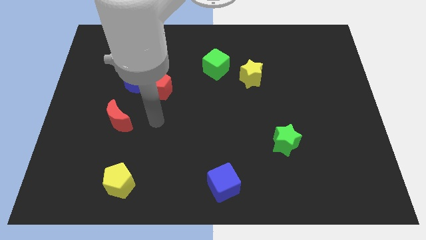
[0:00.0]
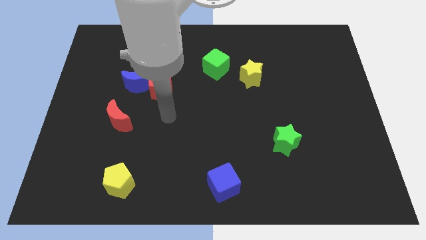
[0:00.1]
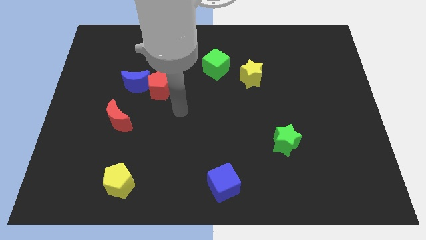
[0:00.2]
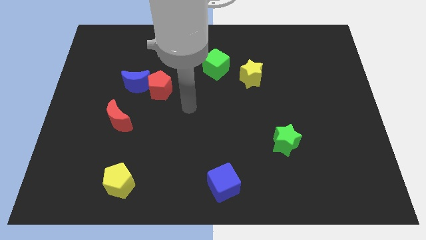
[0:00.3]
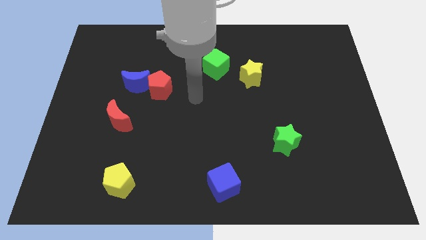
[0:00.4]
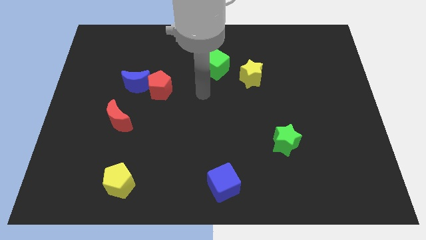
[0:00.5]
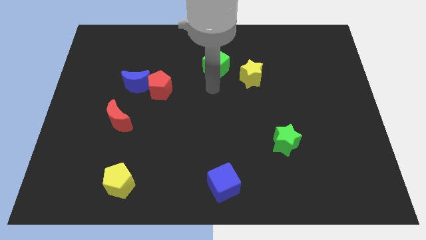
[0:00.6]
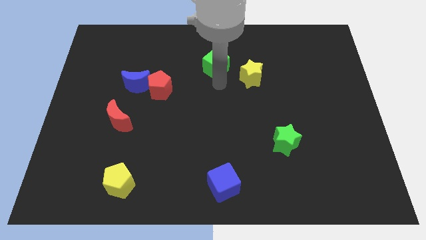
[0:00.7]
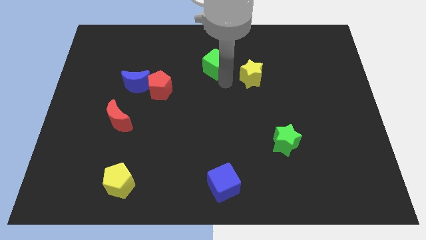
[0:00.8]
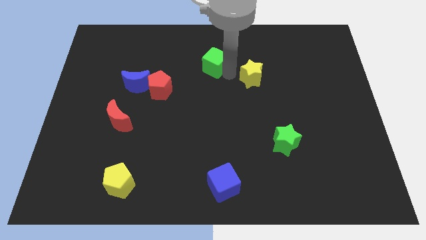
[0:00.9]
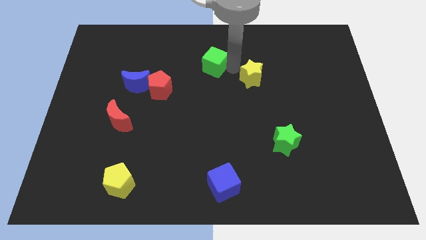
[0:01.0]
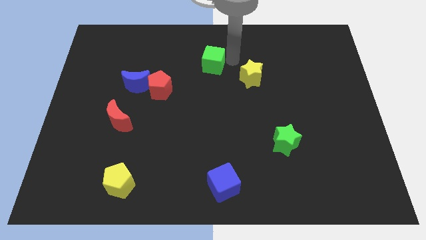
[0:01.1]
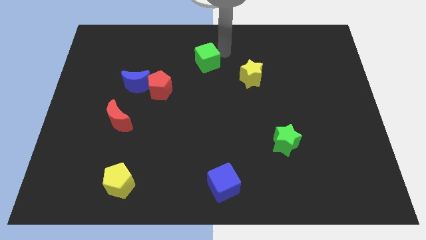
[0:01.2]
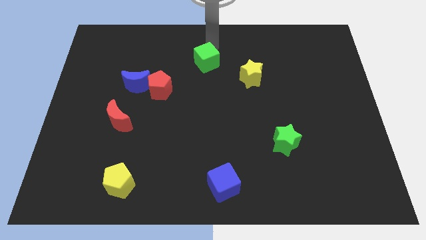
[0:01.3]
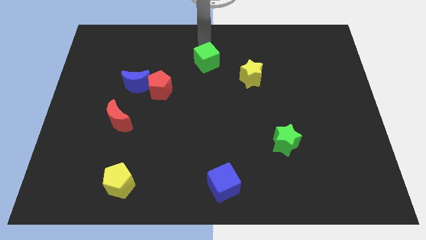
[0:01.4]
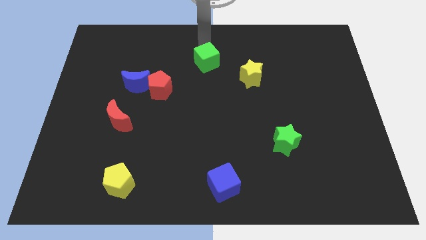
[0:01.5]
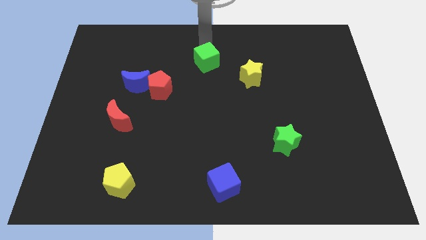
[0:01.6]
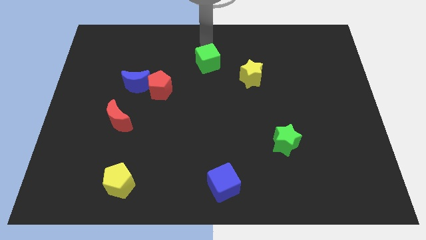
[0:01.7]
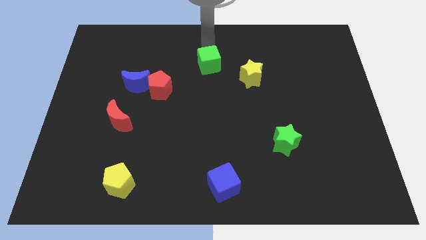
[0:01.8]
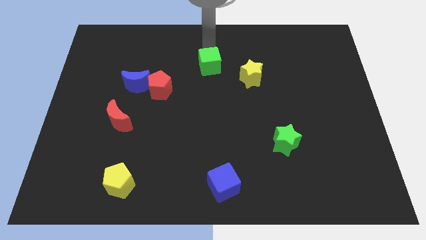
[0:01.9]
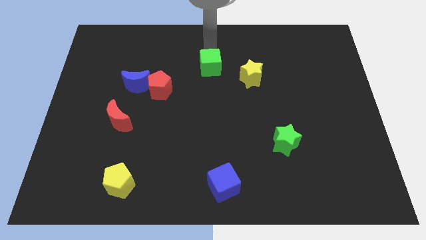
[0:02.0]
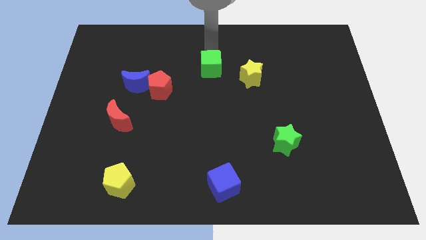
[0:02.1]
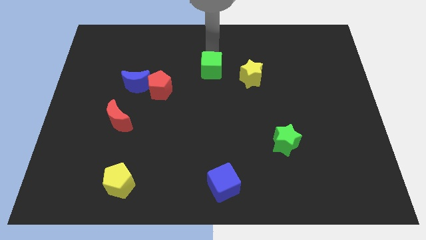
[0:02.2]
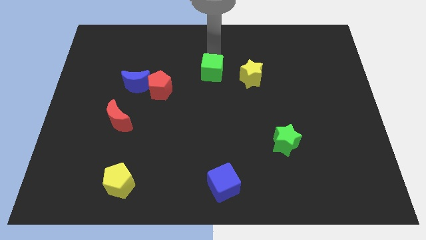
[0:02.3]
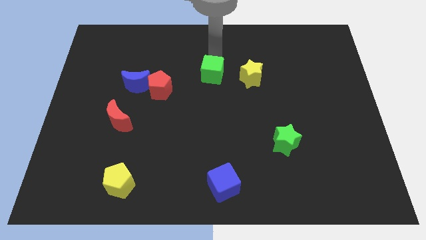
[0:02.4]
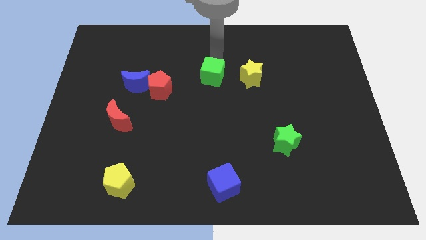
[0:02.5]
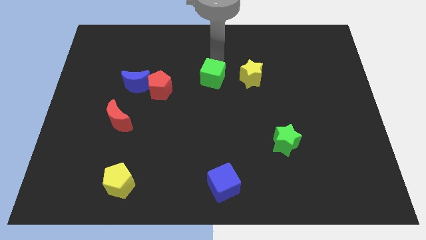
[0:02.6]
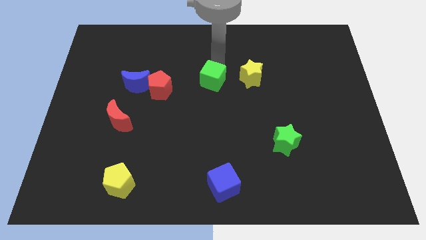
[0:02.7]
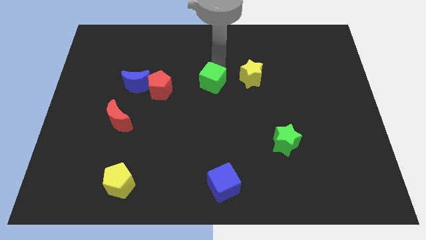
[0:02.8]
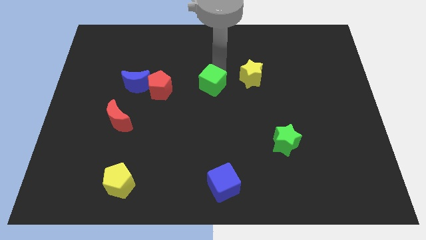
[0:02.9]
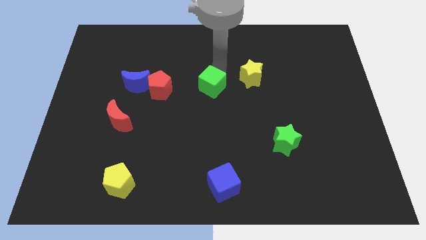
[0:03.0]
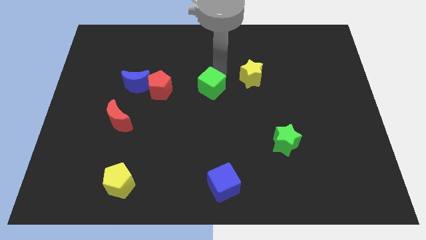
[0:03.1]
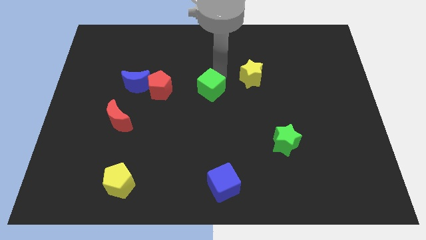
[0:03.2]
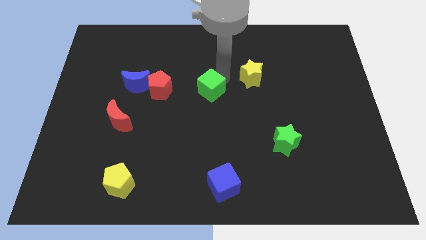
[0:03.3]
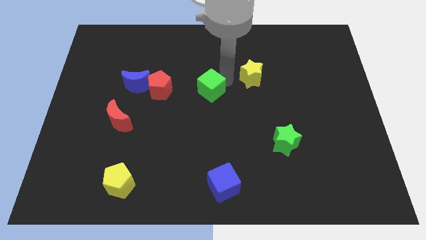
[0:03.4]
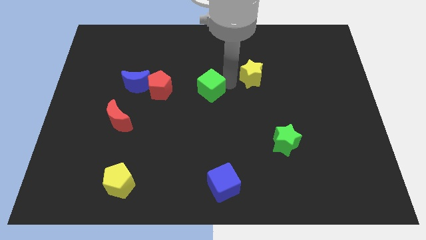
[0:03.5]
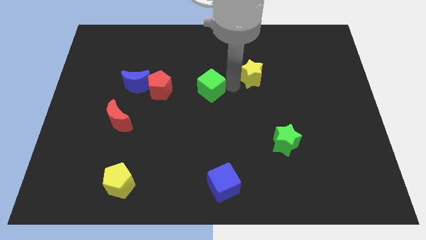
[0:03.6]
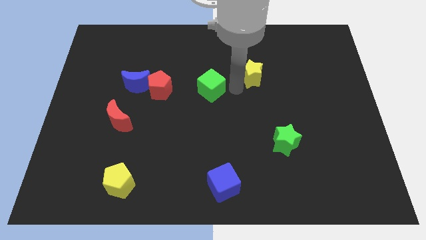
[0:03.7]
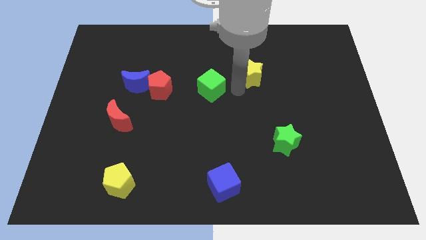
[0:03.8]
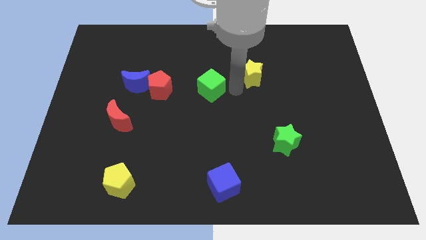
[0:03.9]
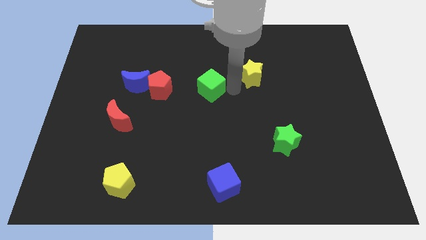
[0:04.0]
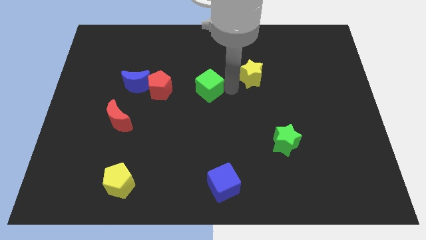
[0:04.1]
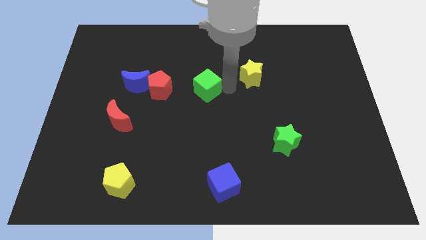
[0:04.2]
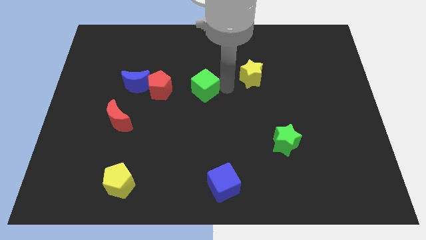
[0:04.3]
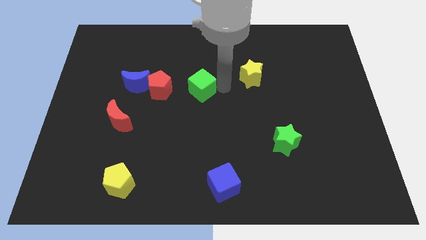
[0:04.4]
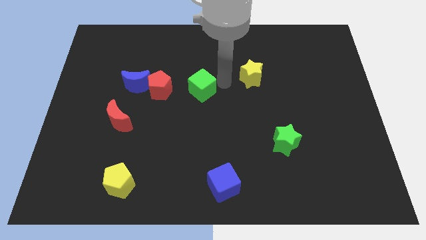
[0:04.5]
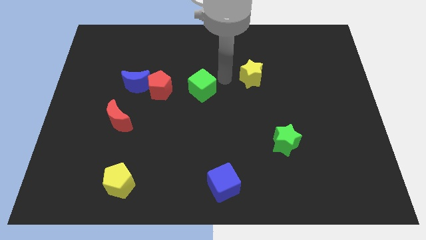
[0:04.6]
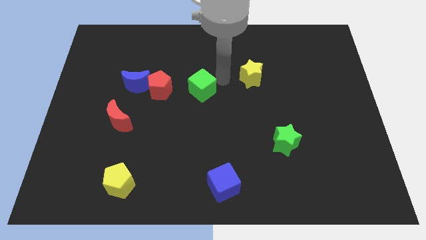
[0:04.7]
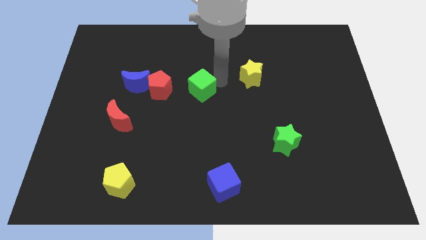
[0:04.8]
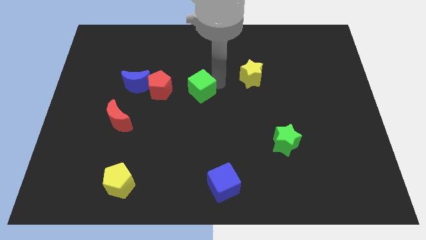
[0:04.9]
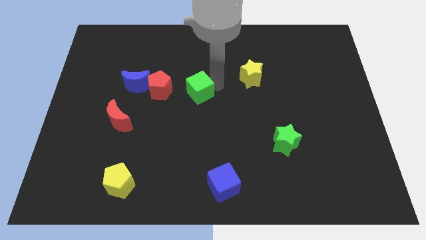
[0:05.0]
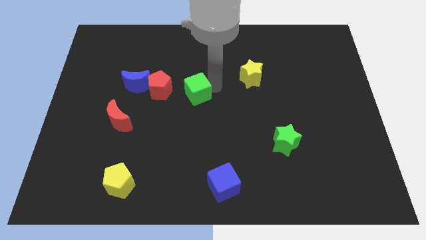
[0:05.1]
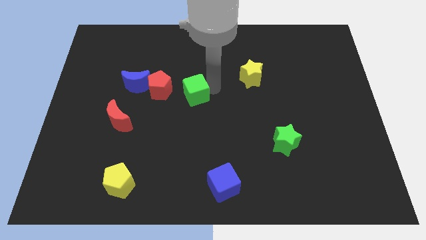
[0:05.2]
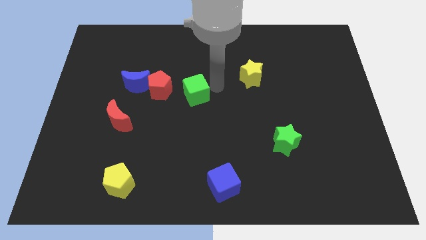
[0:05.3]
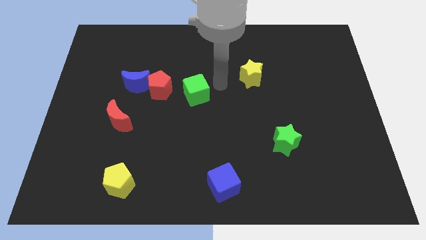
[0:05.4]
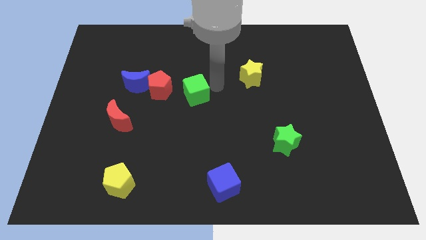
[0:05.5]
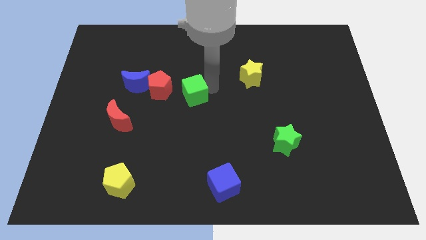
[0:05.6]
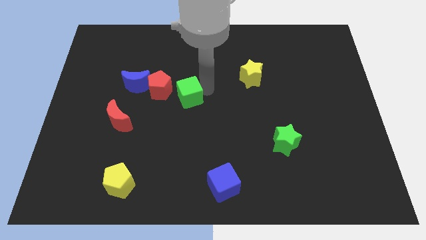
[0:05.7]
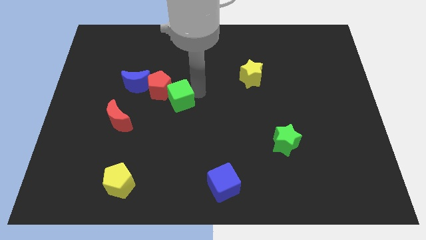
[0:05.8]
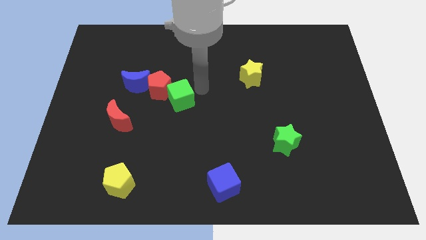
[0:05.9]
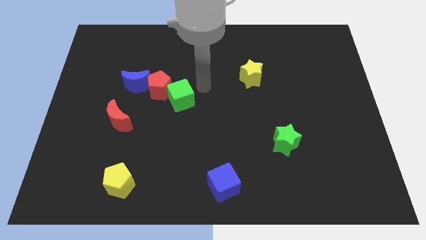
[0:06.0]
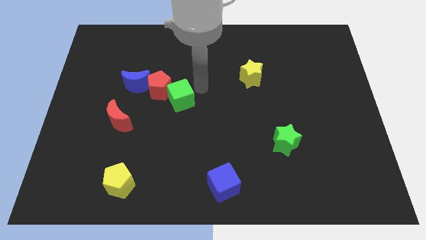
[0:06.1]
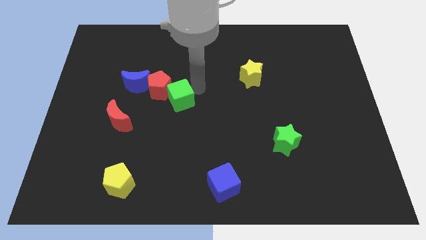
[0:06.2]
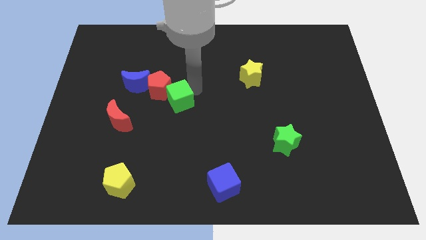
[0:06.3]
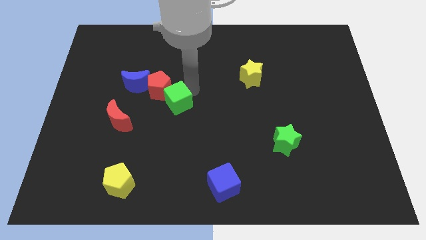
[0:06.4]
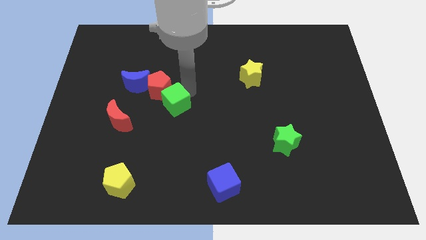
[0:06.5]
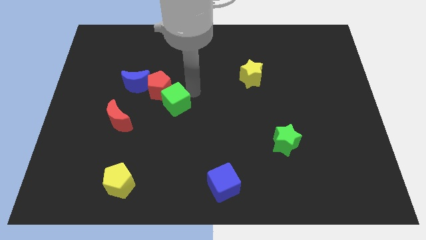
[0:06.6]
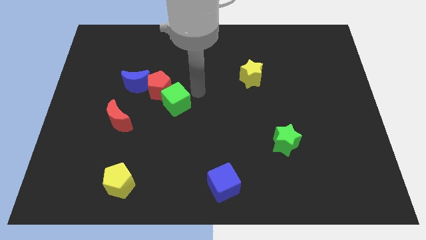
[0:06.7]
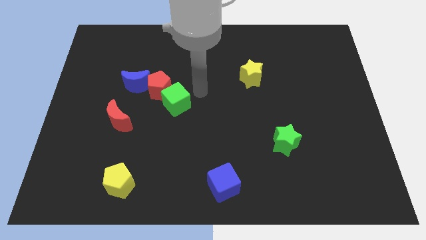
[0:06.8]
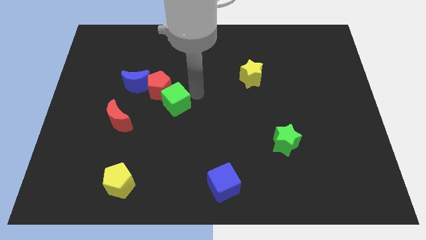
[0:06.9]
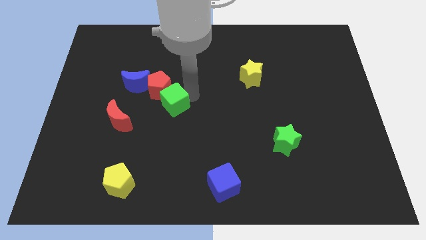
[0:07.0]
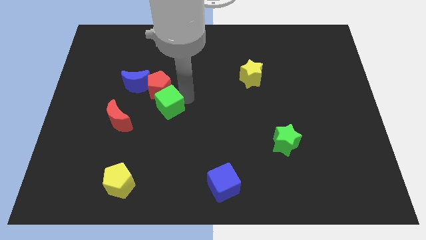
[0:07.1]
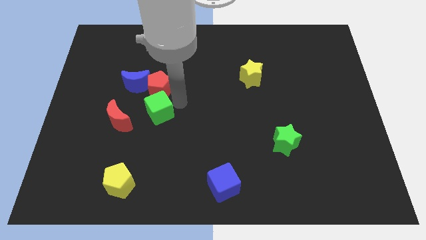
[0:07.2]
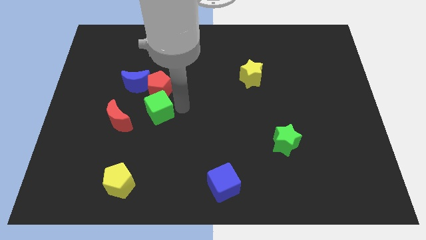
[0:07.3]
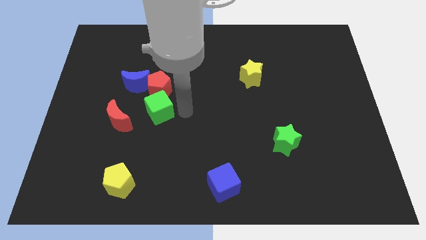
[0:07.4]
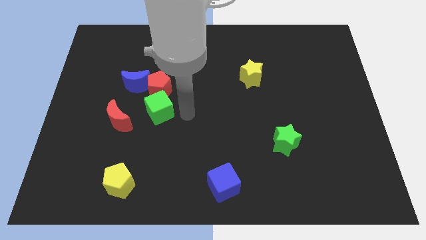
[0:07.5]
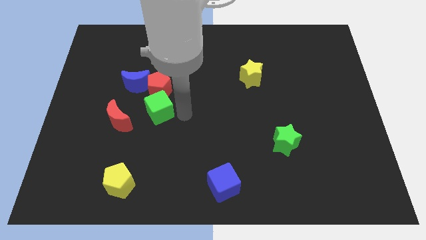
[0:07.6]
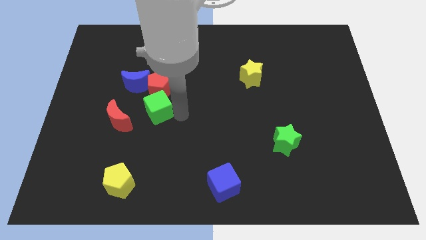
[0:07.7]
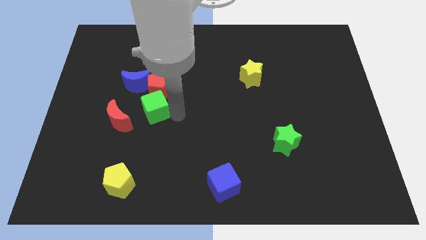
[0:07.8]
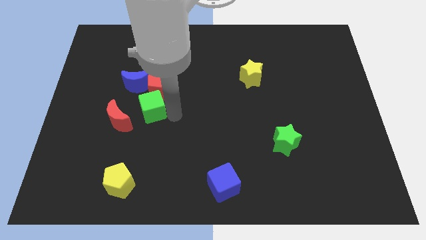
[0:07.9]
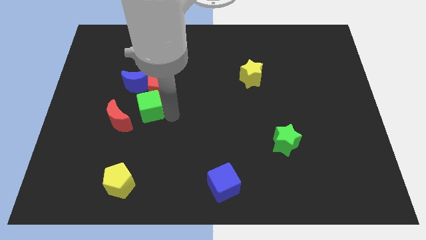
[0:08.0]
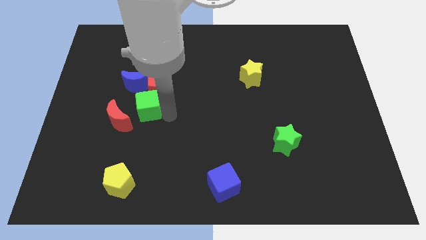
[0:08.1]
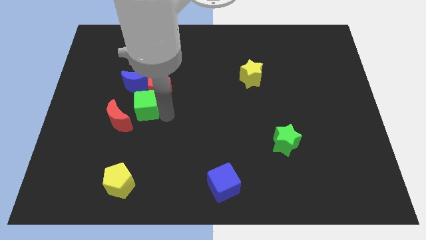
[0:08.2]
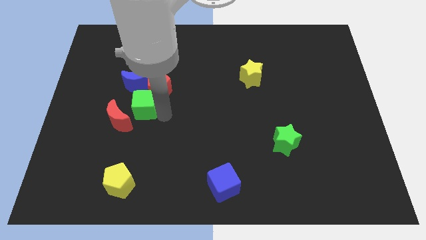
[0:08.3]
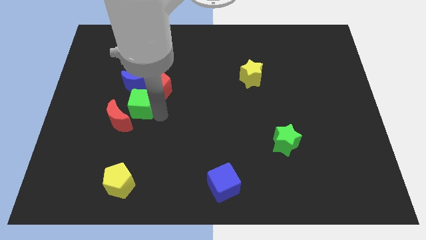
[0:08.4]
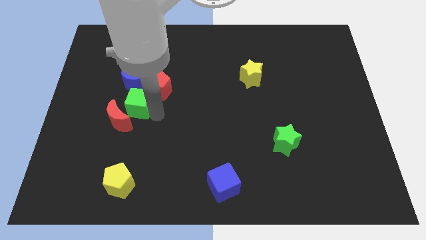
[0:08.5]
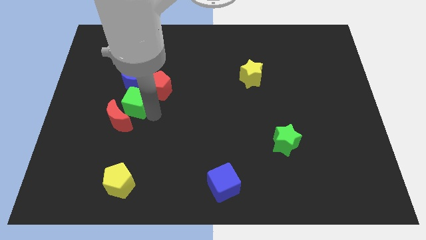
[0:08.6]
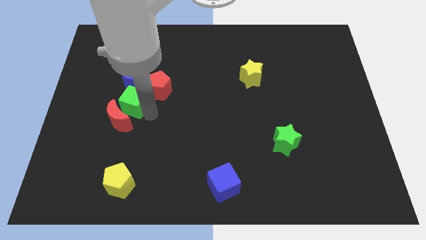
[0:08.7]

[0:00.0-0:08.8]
push the green cube to the bottom left of the blue moon
